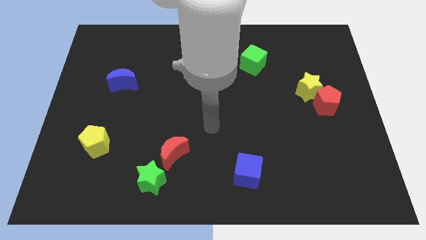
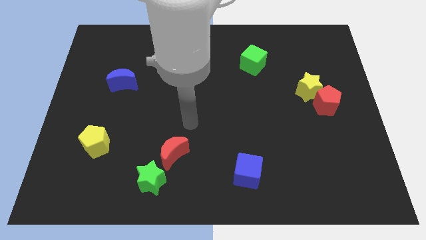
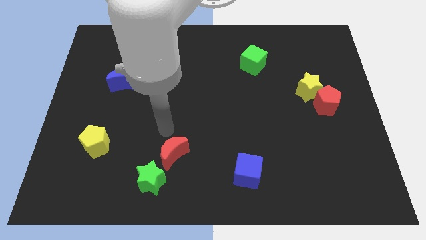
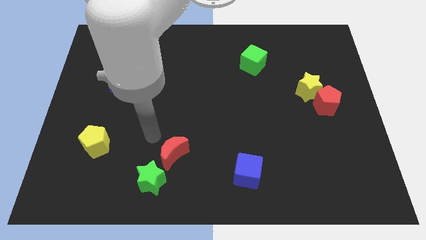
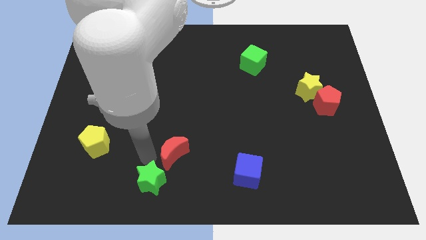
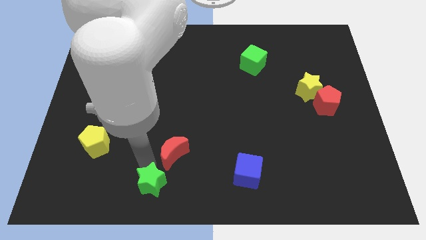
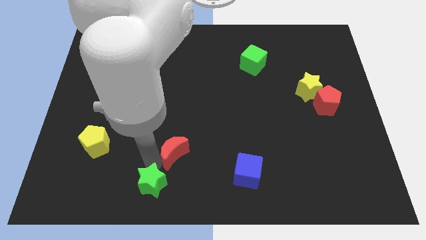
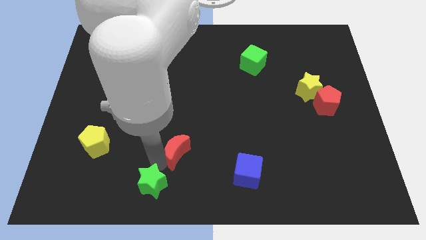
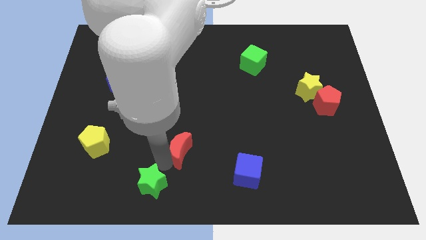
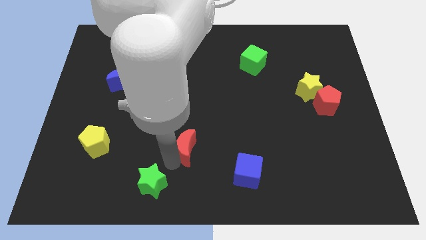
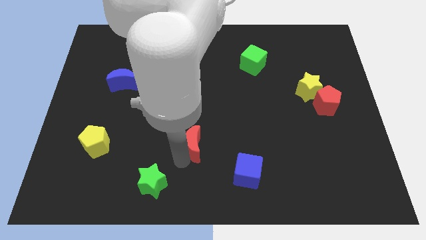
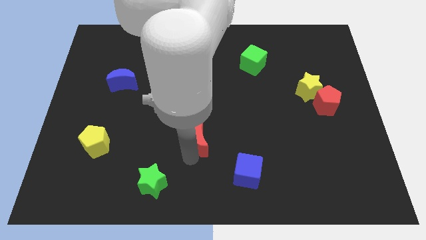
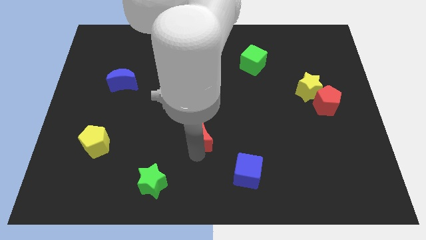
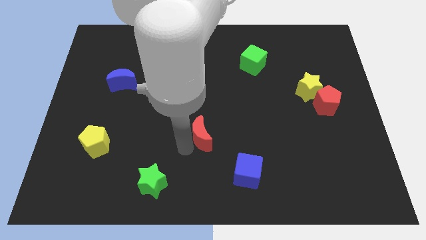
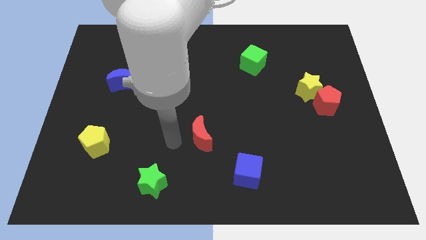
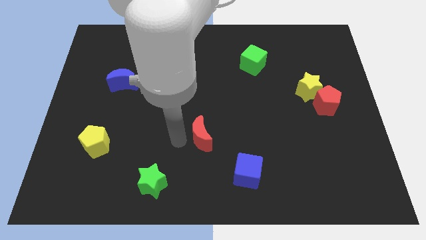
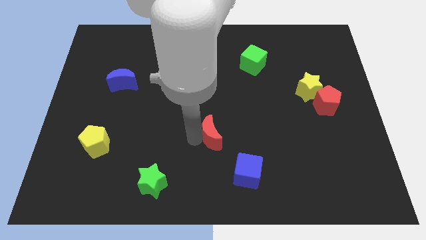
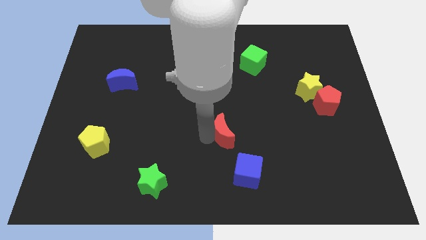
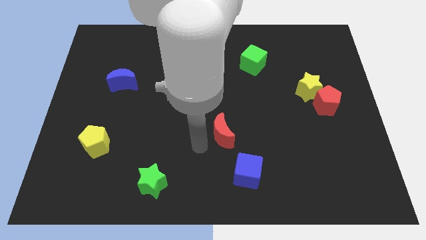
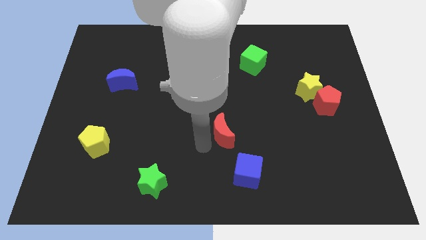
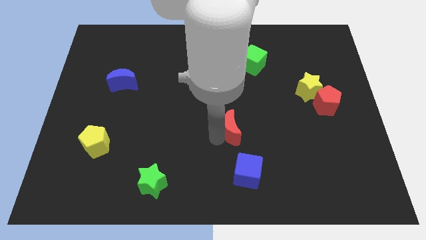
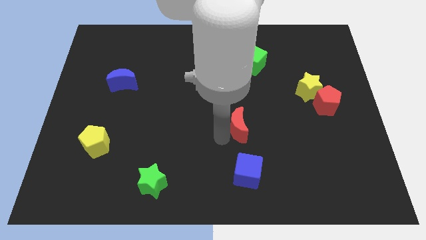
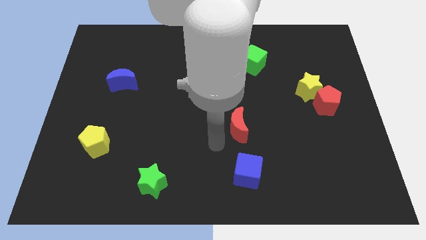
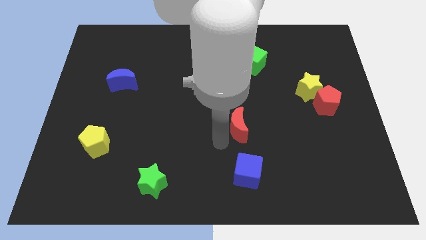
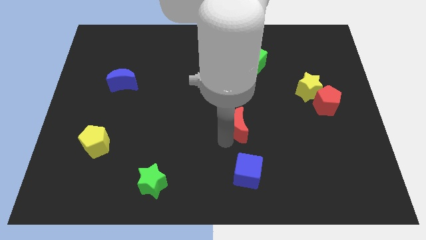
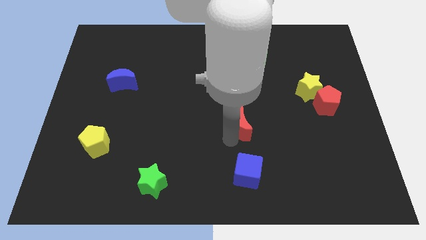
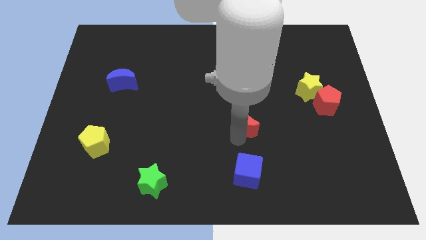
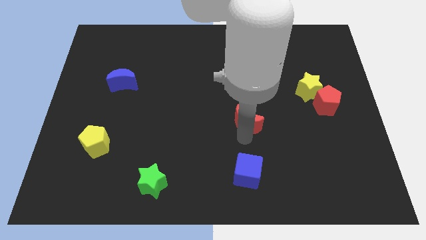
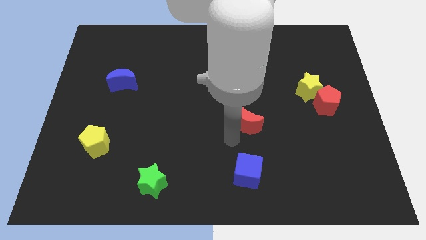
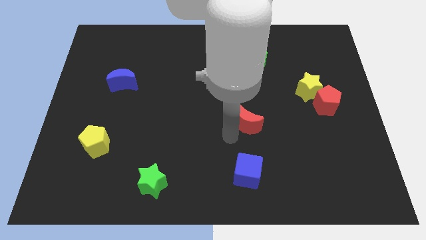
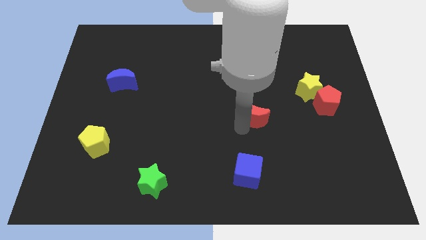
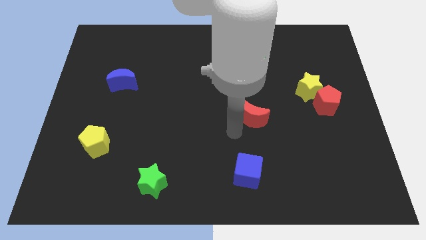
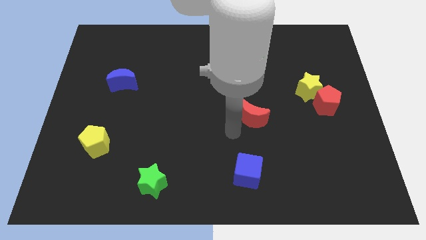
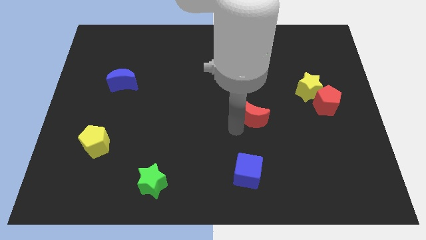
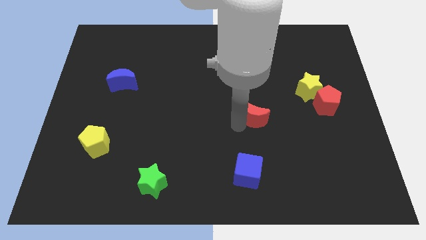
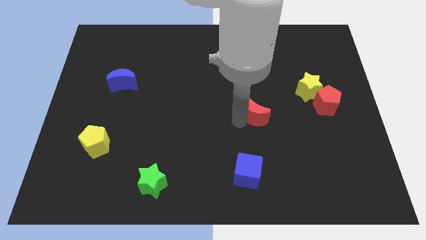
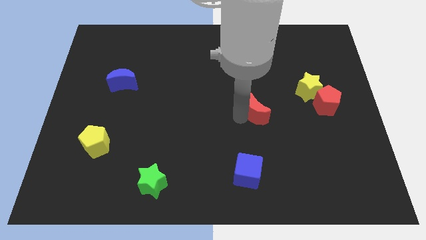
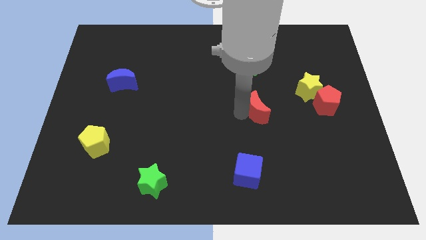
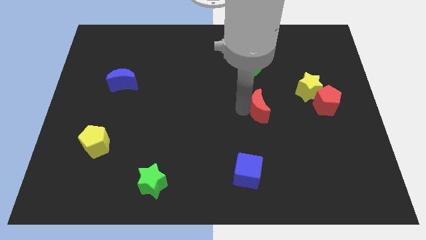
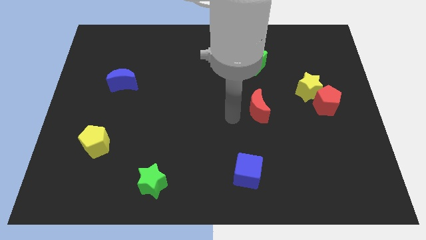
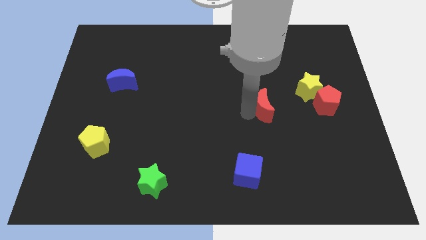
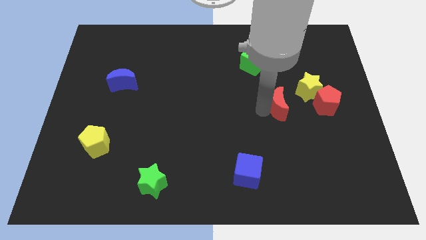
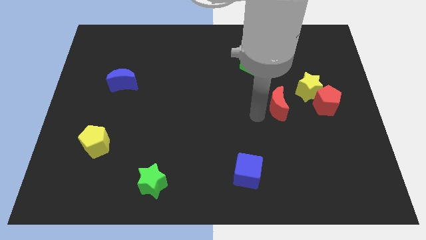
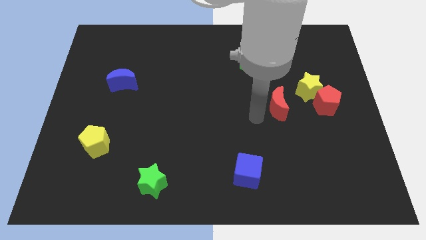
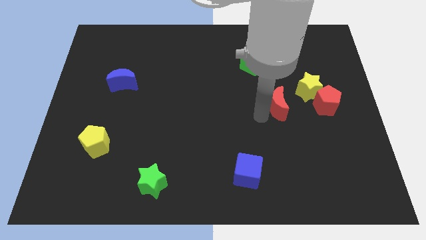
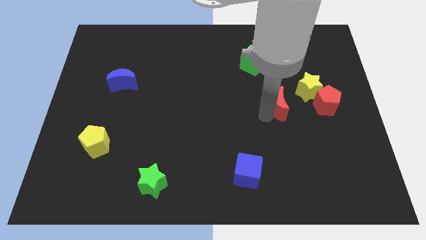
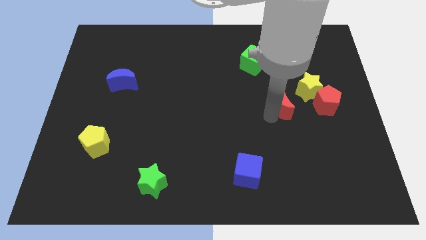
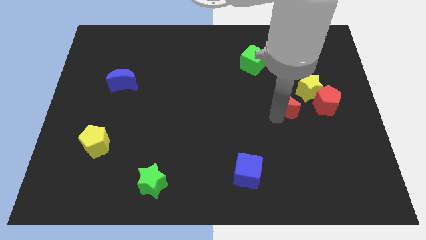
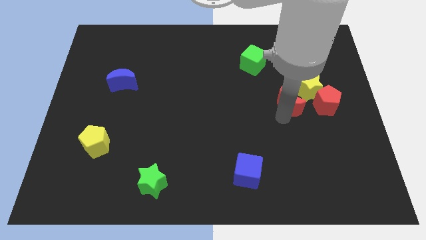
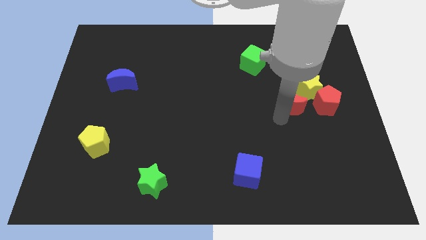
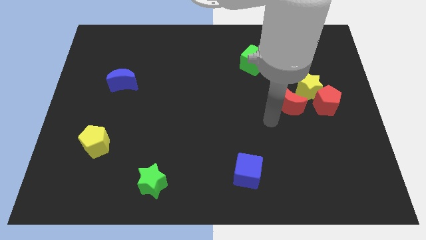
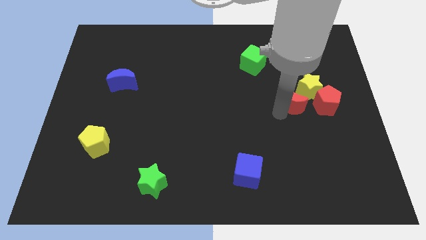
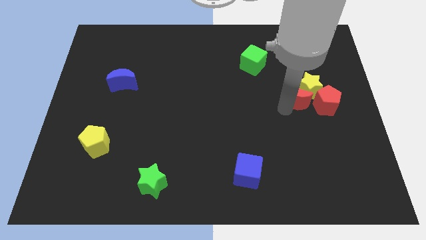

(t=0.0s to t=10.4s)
slide the red moon close to the yellow star

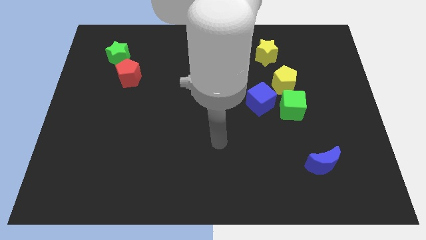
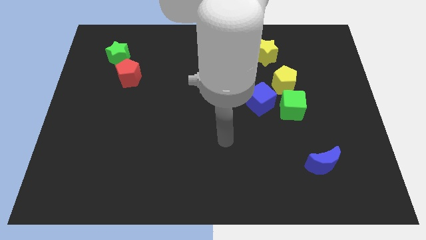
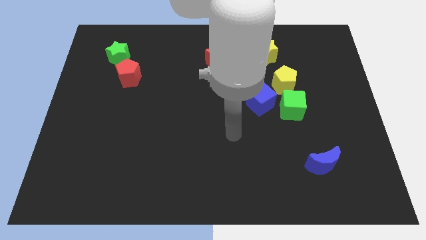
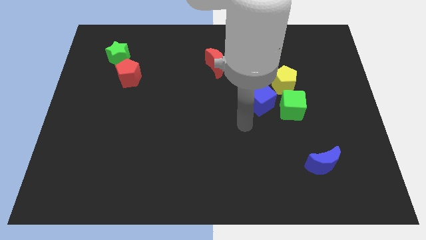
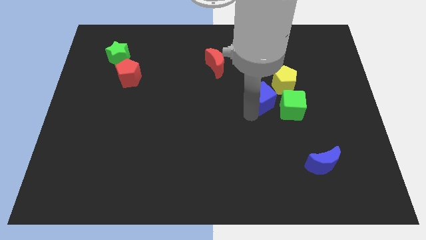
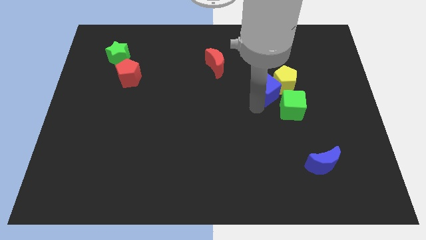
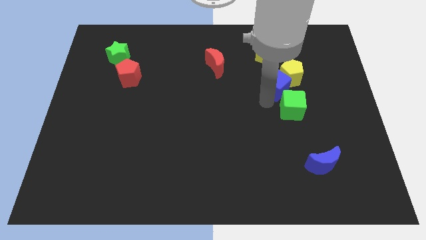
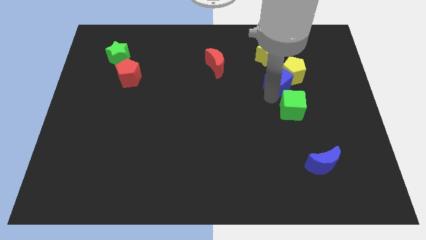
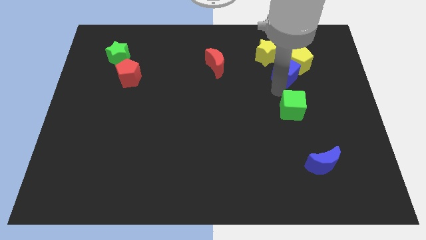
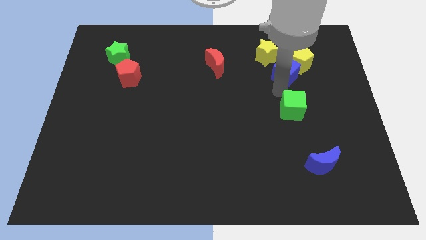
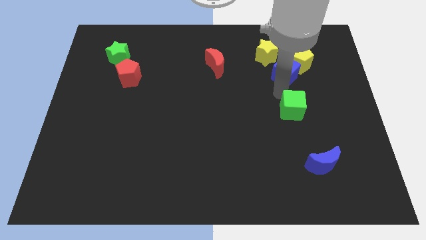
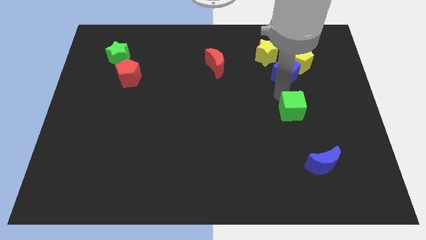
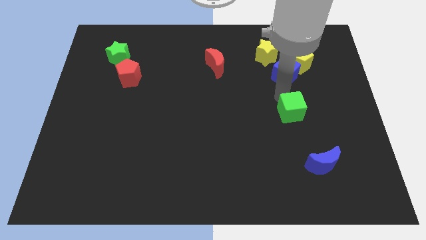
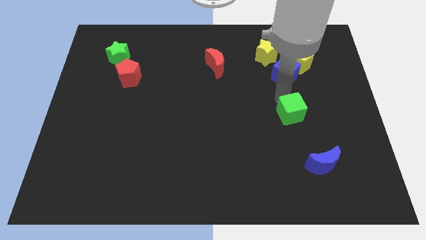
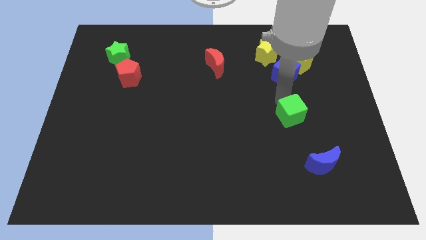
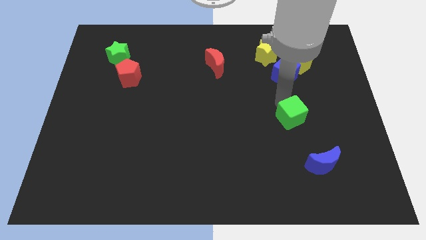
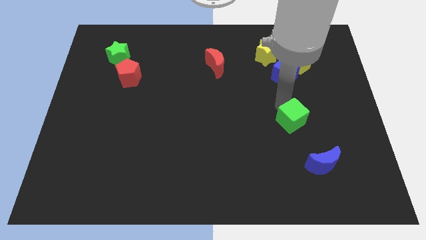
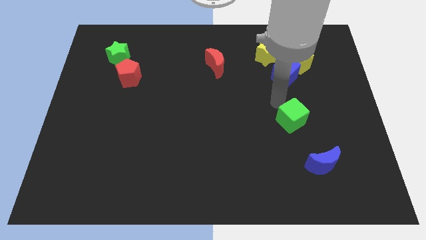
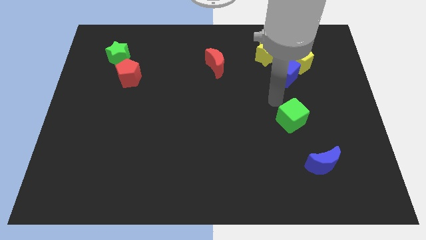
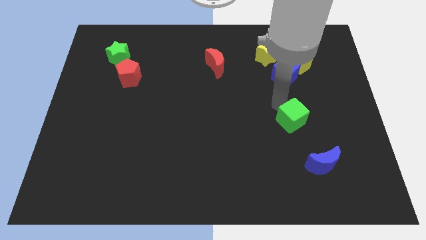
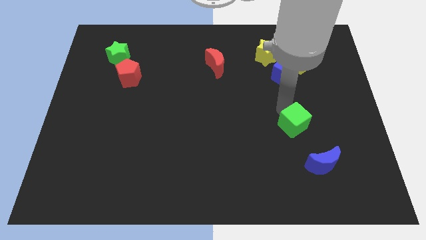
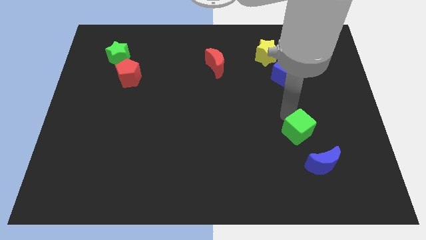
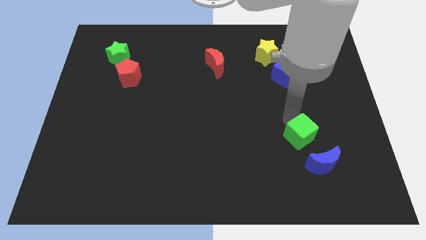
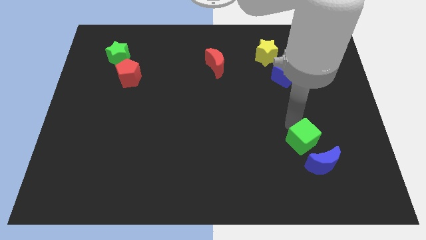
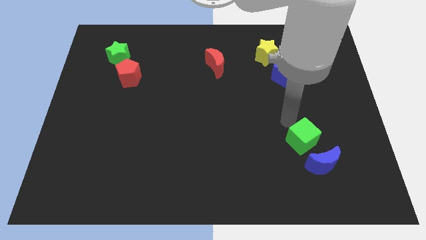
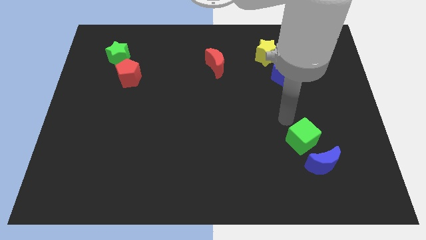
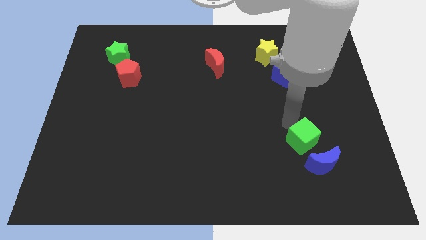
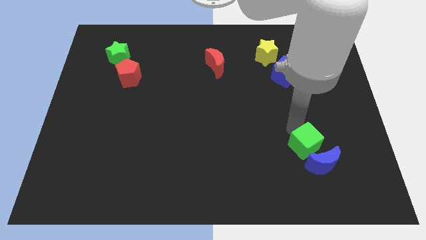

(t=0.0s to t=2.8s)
put the green cube close to the blue moon
